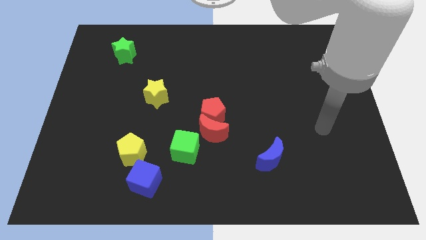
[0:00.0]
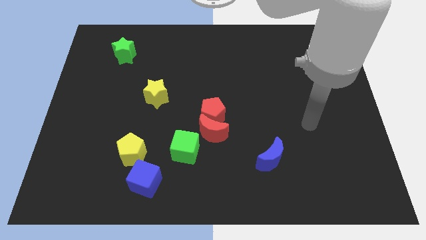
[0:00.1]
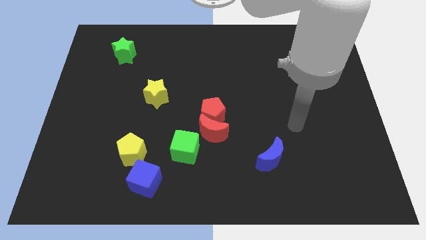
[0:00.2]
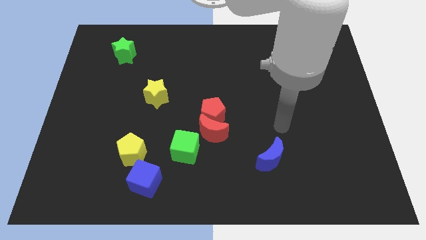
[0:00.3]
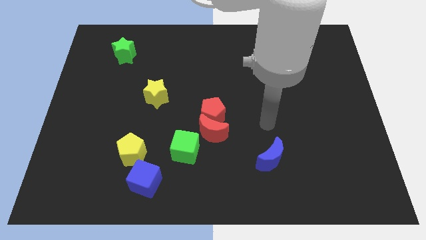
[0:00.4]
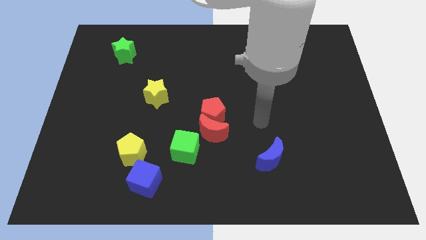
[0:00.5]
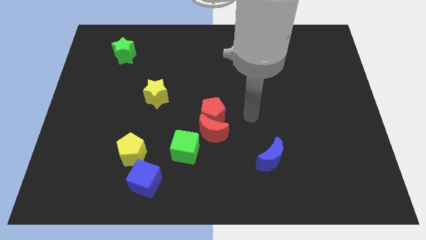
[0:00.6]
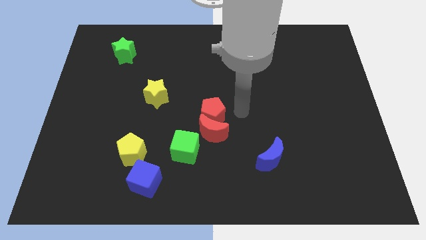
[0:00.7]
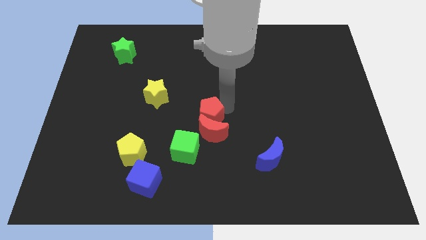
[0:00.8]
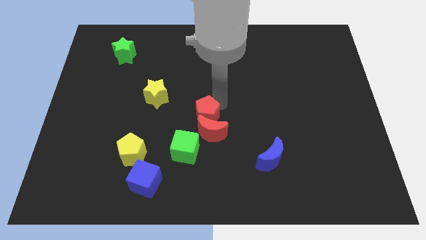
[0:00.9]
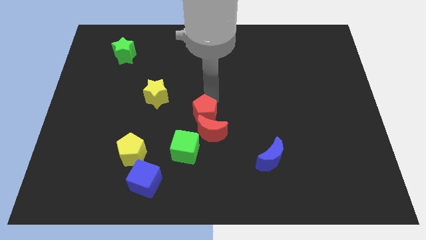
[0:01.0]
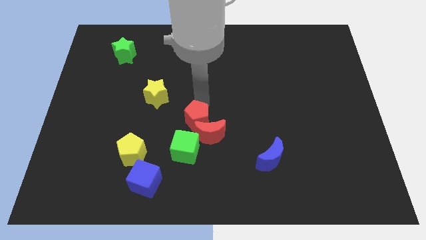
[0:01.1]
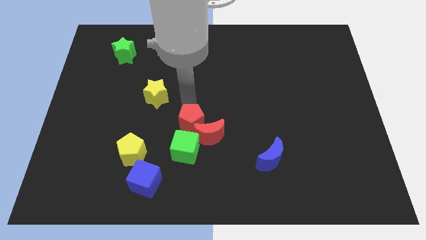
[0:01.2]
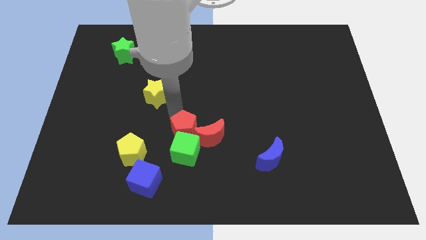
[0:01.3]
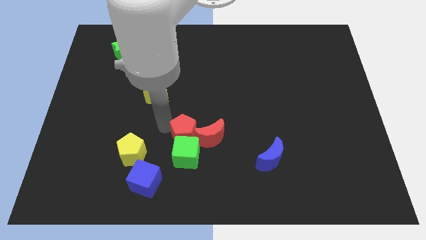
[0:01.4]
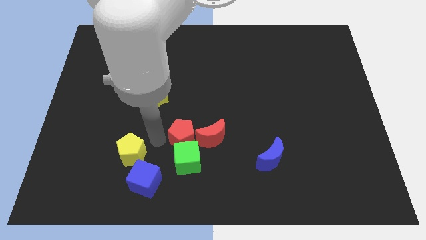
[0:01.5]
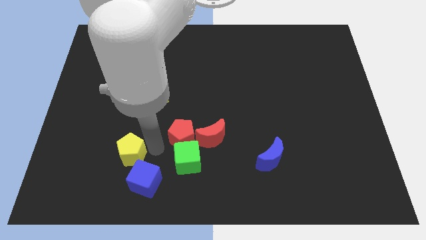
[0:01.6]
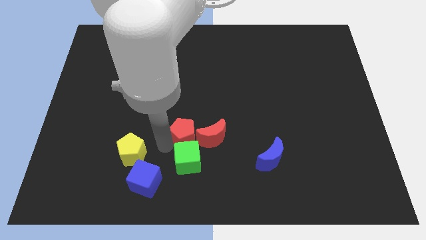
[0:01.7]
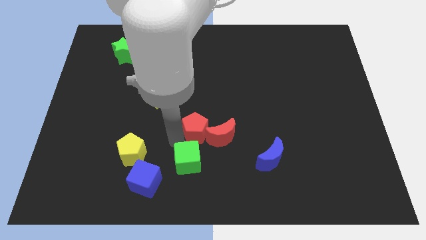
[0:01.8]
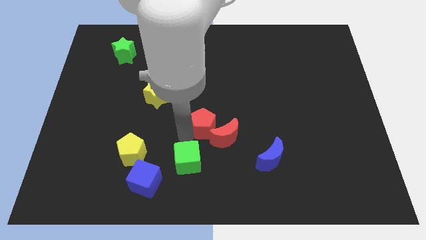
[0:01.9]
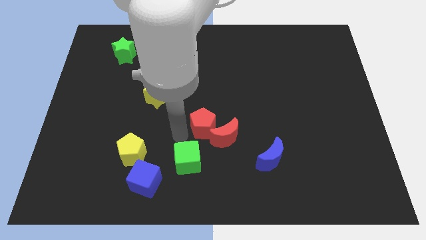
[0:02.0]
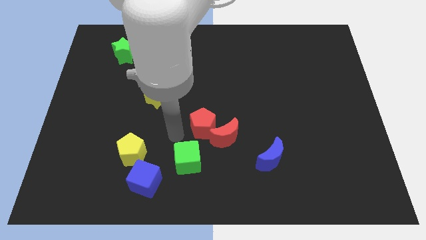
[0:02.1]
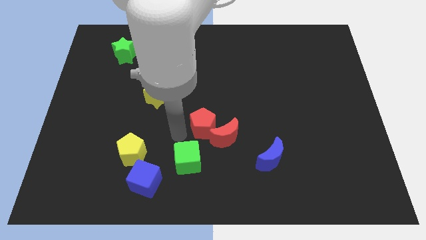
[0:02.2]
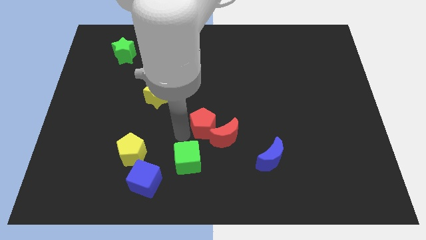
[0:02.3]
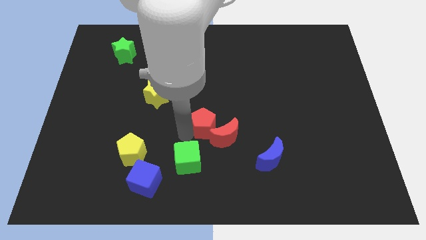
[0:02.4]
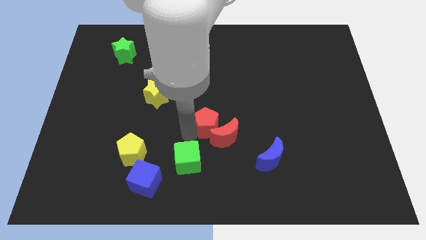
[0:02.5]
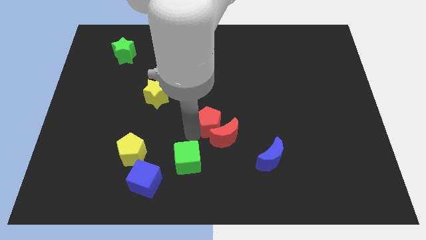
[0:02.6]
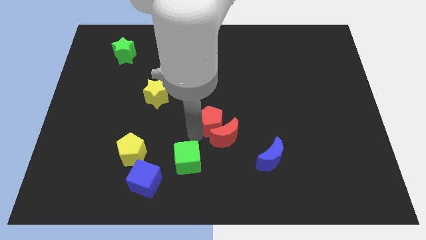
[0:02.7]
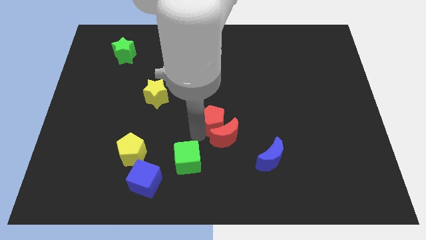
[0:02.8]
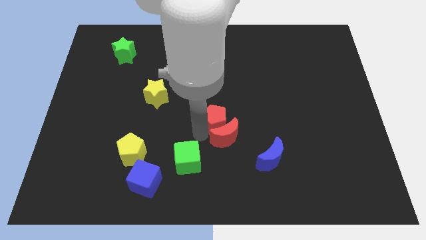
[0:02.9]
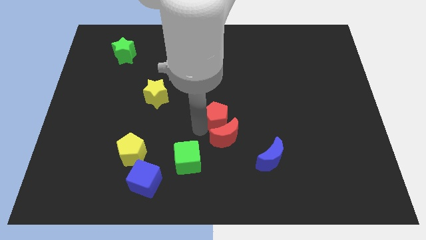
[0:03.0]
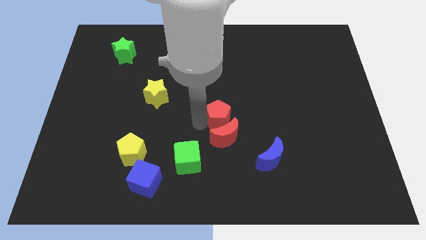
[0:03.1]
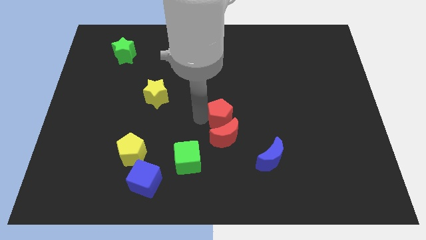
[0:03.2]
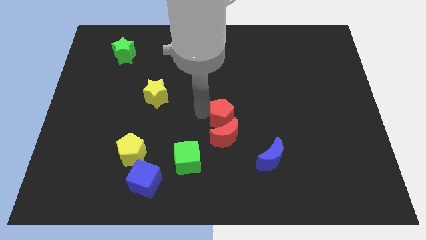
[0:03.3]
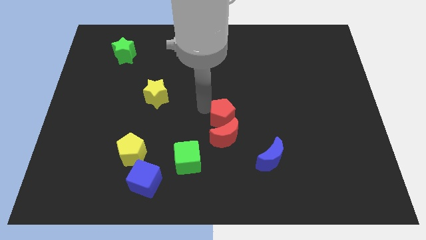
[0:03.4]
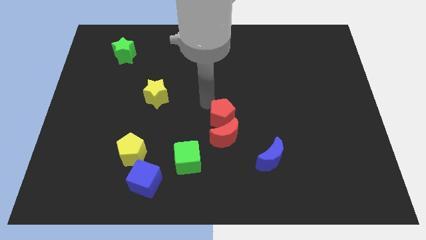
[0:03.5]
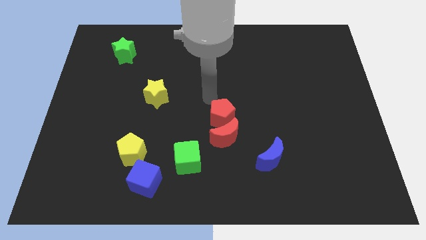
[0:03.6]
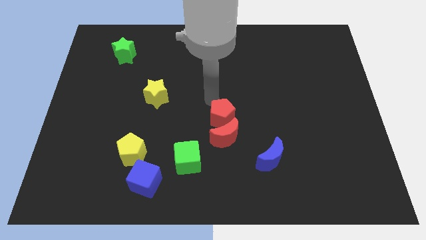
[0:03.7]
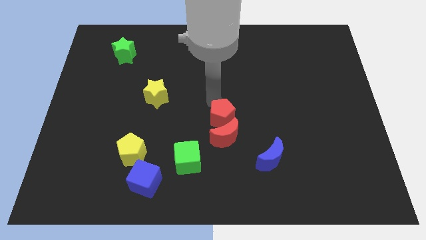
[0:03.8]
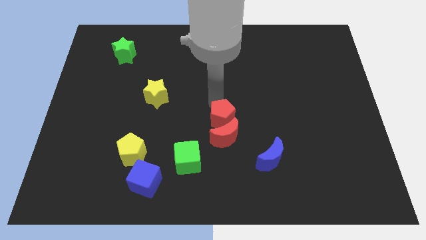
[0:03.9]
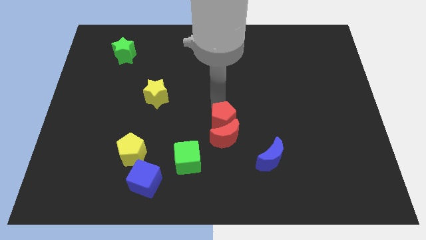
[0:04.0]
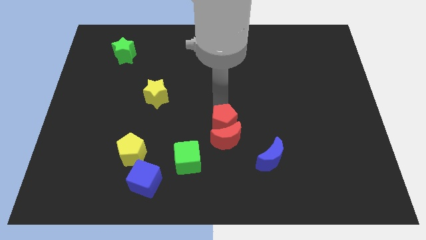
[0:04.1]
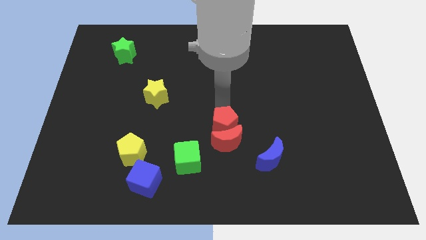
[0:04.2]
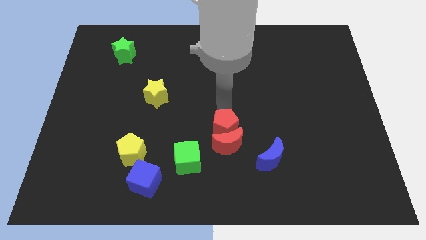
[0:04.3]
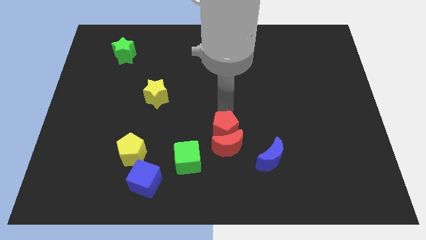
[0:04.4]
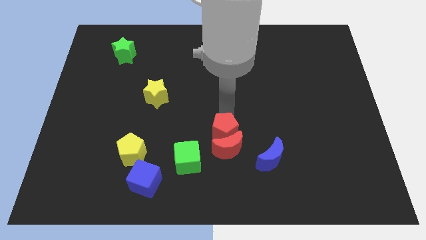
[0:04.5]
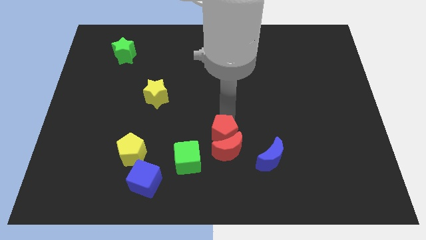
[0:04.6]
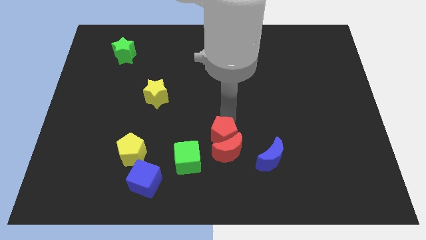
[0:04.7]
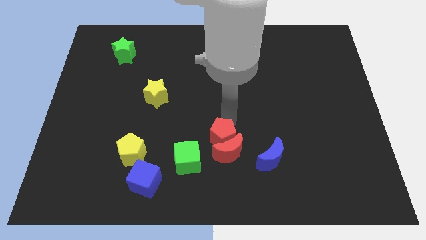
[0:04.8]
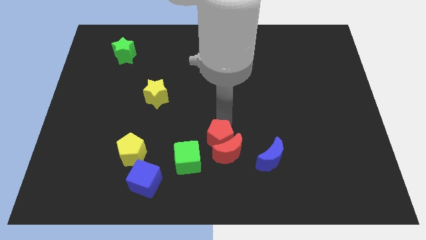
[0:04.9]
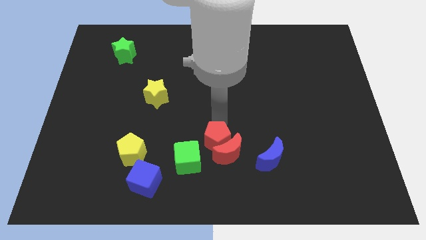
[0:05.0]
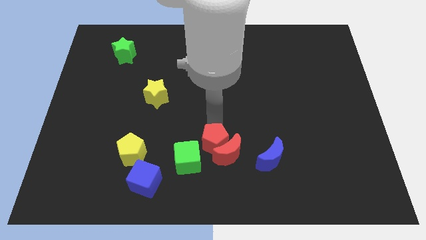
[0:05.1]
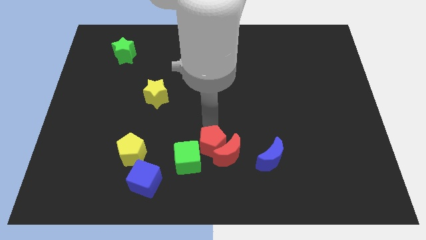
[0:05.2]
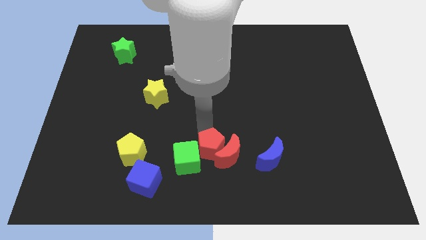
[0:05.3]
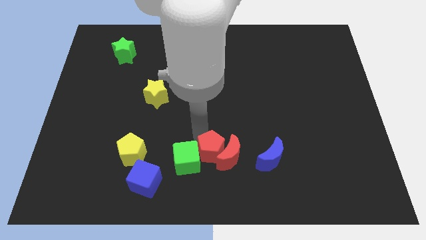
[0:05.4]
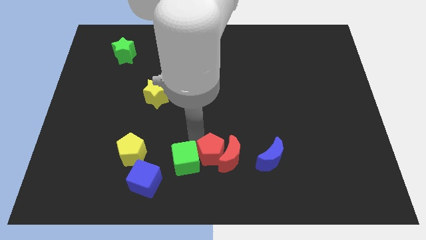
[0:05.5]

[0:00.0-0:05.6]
push the red pentagon to the bottom side

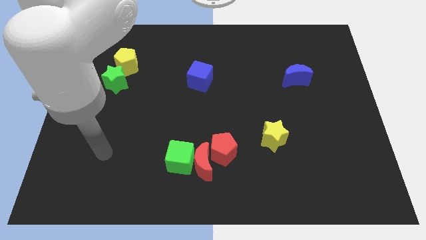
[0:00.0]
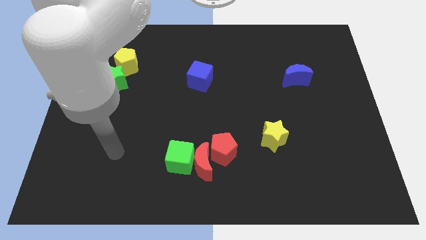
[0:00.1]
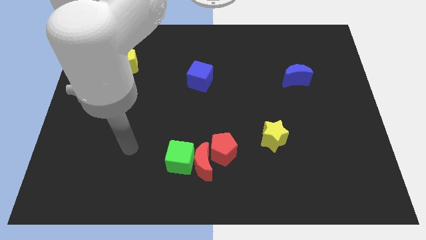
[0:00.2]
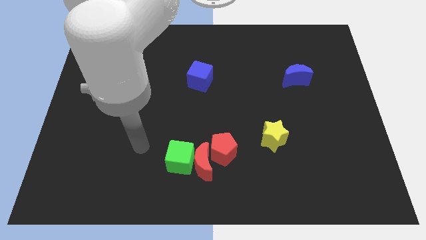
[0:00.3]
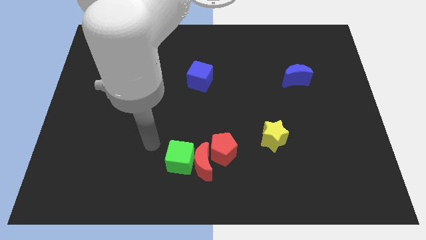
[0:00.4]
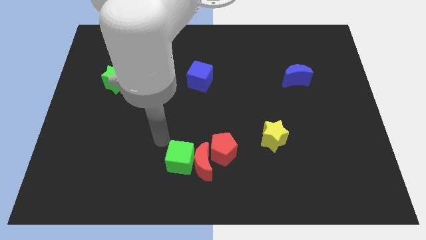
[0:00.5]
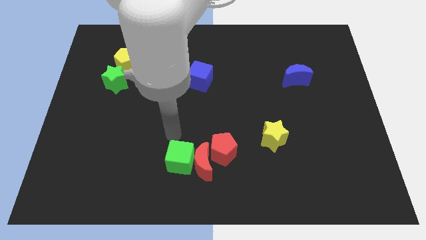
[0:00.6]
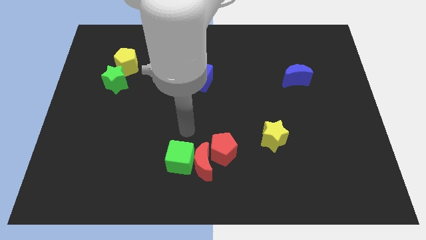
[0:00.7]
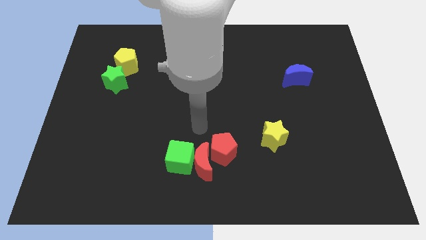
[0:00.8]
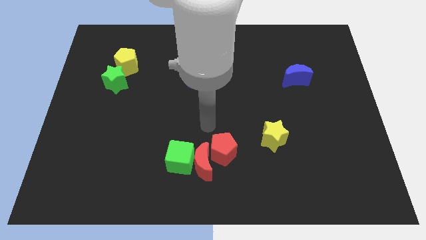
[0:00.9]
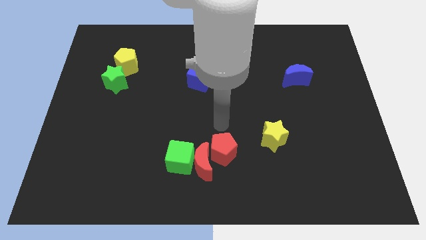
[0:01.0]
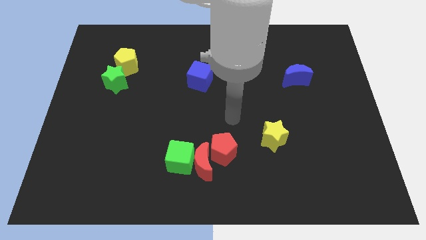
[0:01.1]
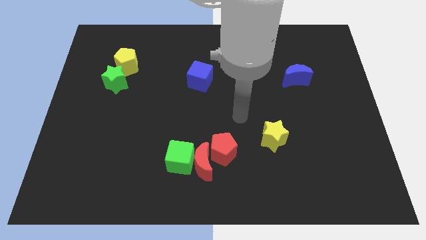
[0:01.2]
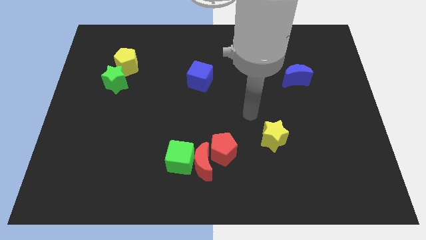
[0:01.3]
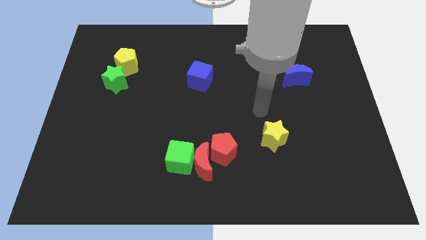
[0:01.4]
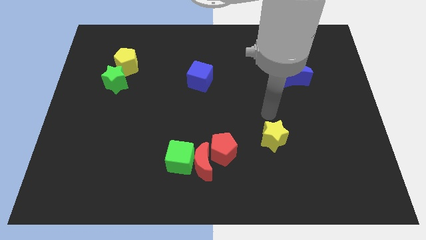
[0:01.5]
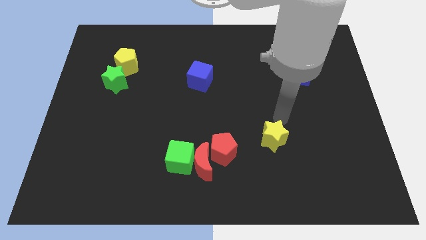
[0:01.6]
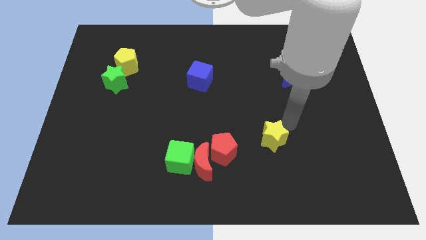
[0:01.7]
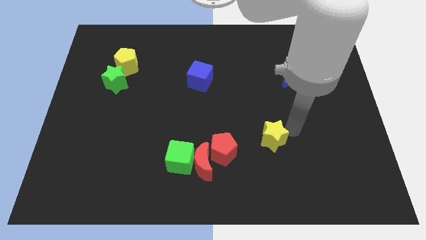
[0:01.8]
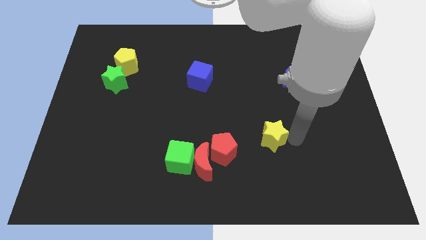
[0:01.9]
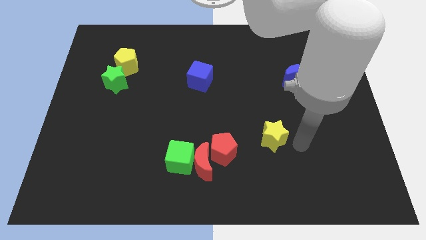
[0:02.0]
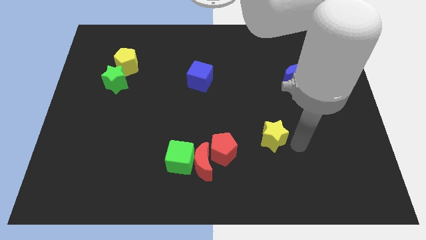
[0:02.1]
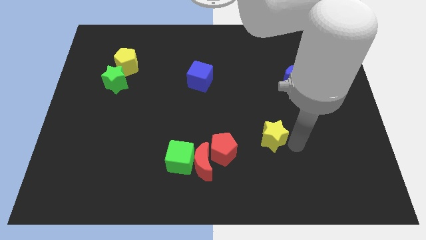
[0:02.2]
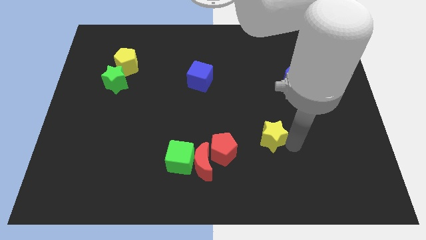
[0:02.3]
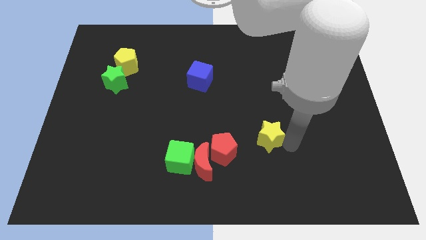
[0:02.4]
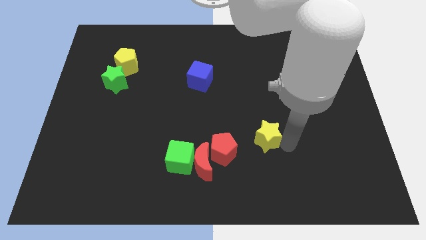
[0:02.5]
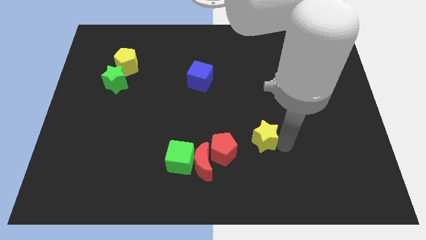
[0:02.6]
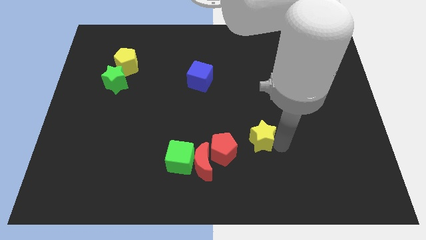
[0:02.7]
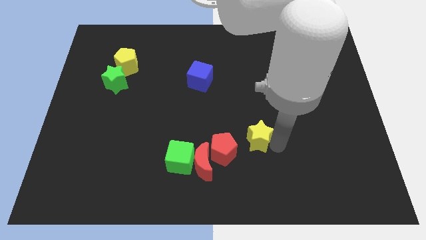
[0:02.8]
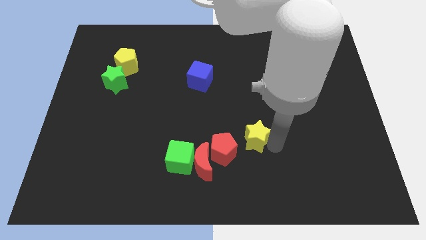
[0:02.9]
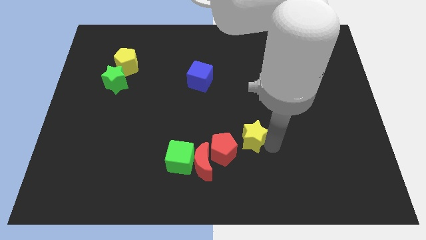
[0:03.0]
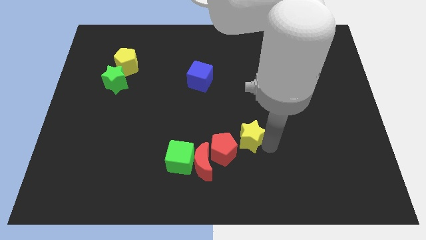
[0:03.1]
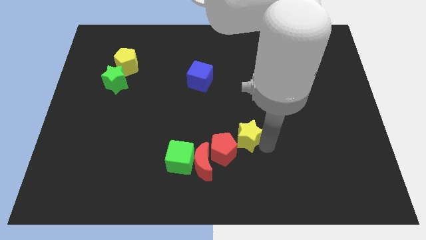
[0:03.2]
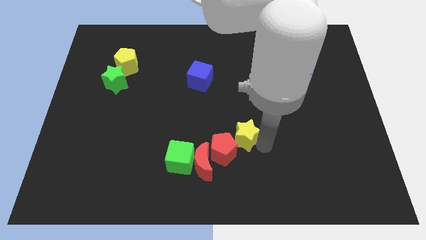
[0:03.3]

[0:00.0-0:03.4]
put the yellow star to the center of the board
